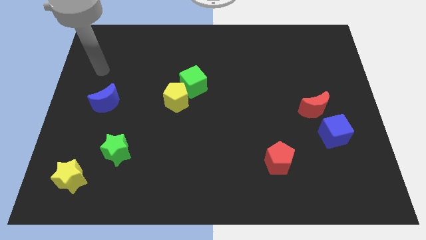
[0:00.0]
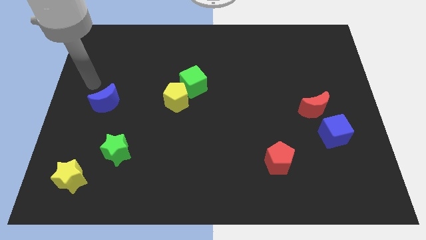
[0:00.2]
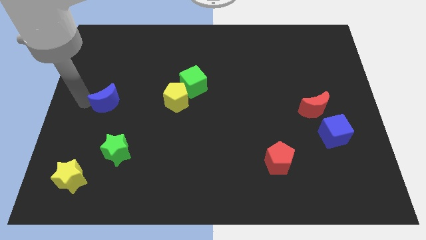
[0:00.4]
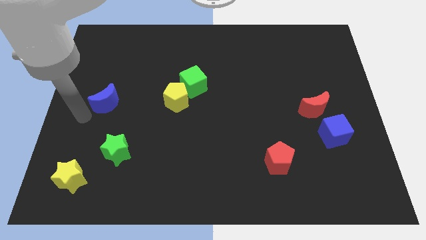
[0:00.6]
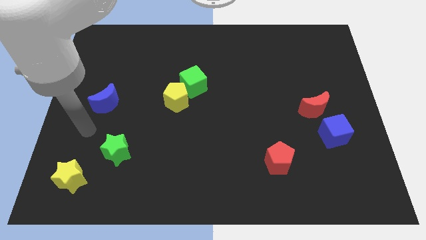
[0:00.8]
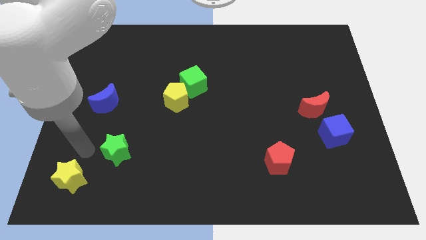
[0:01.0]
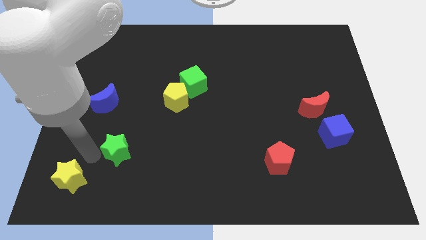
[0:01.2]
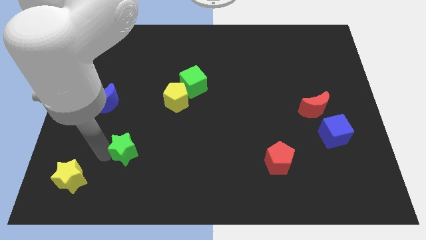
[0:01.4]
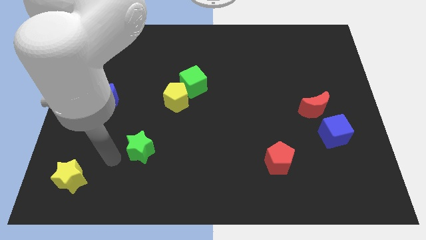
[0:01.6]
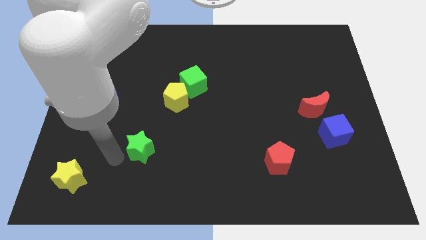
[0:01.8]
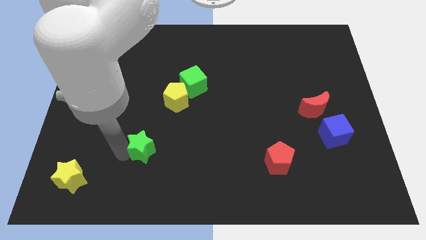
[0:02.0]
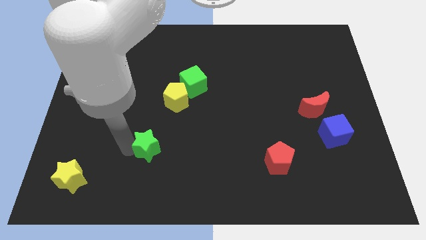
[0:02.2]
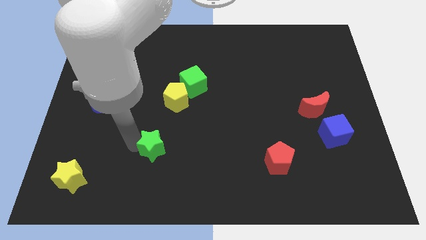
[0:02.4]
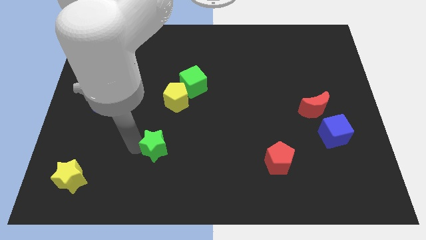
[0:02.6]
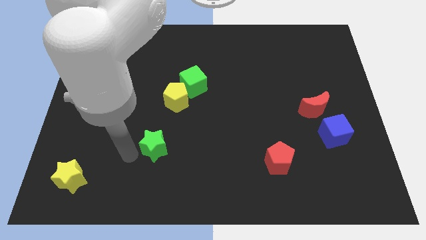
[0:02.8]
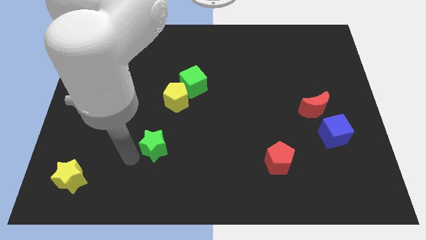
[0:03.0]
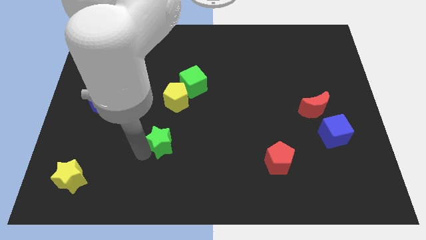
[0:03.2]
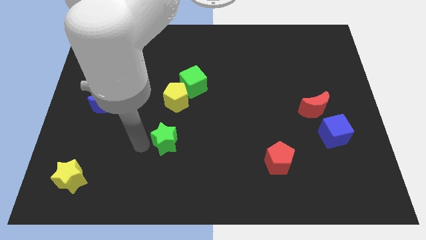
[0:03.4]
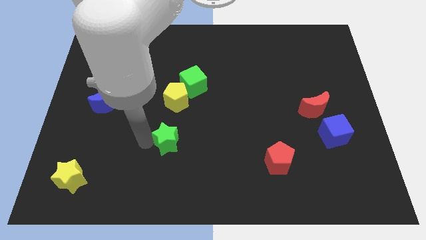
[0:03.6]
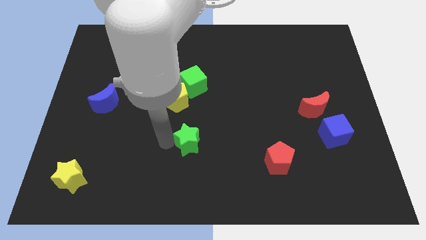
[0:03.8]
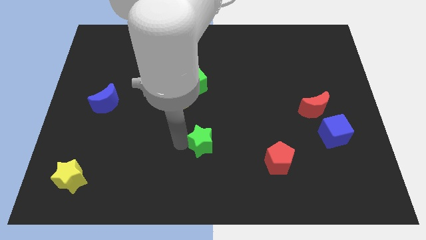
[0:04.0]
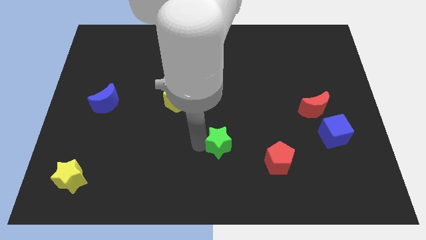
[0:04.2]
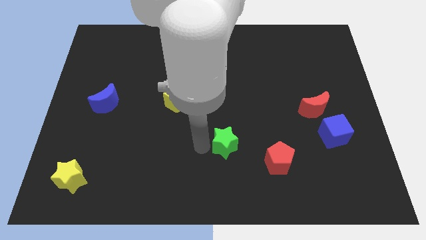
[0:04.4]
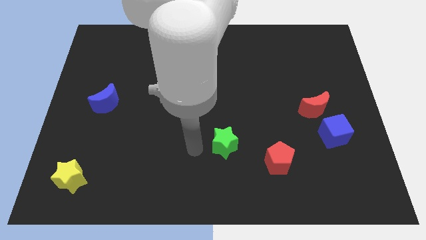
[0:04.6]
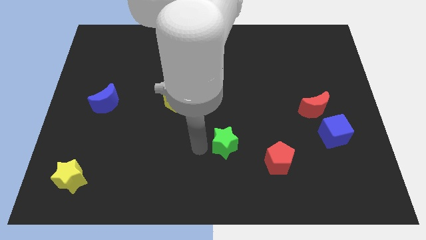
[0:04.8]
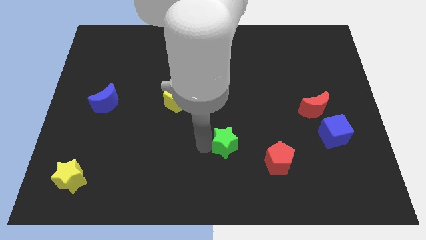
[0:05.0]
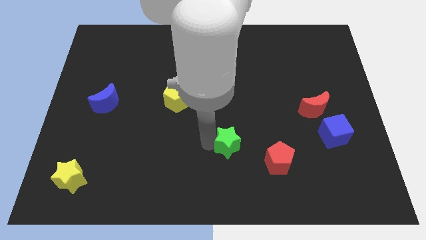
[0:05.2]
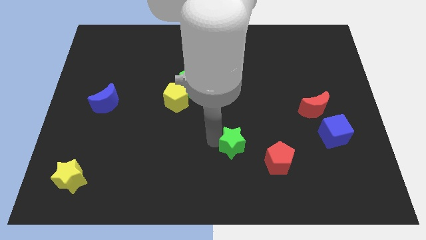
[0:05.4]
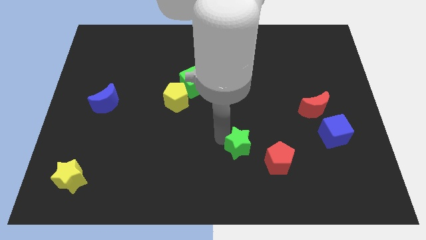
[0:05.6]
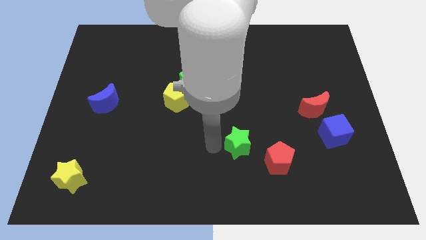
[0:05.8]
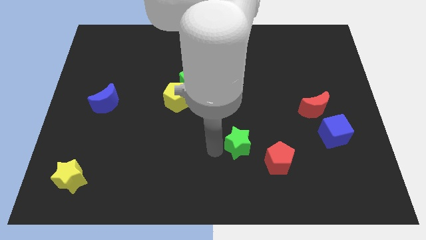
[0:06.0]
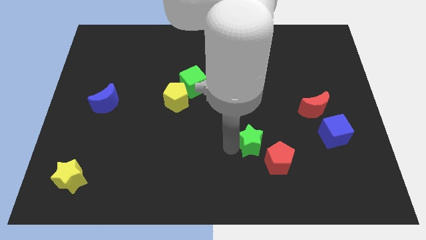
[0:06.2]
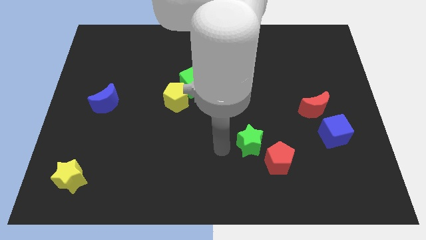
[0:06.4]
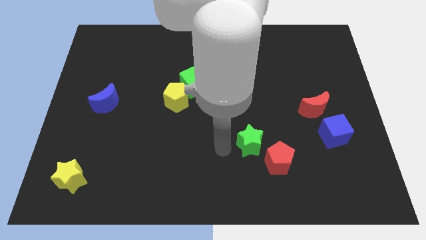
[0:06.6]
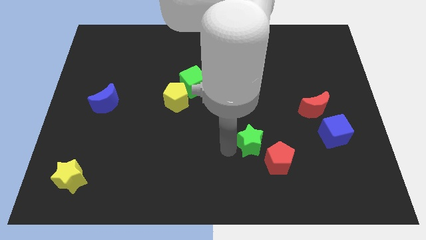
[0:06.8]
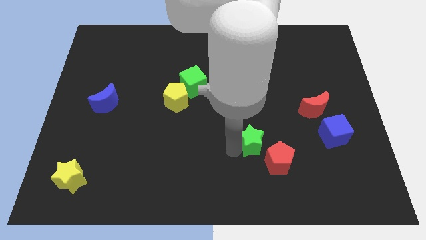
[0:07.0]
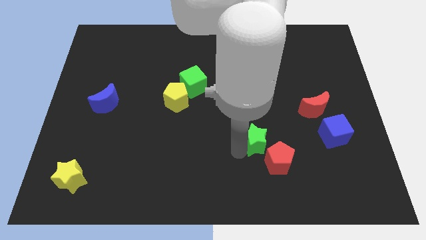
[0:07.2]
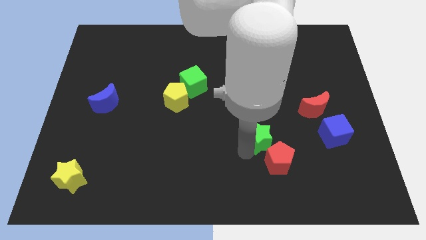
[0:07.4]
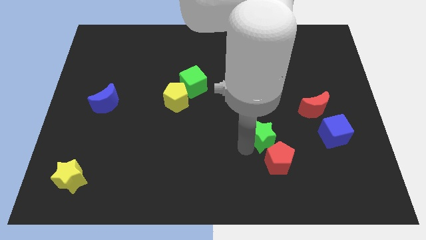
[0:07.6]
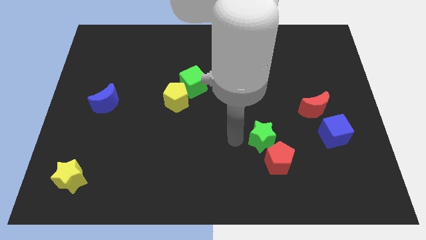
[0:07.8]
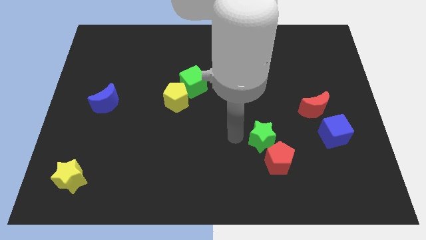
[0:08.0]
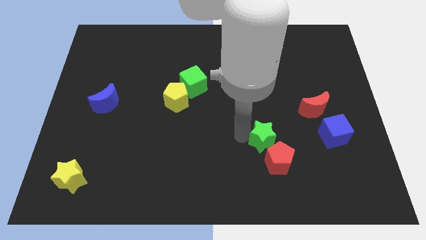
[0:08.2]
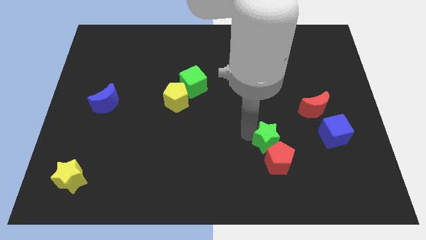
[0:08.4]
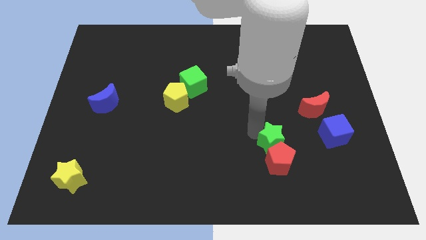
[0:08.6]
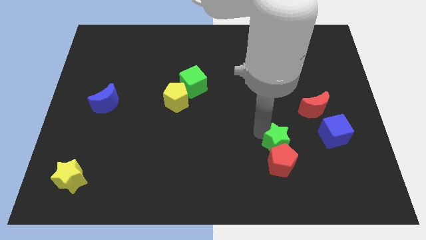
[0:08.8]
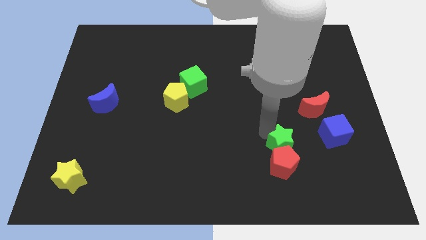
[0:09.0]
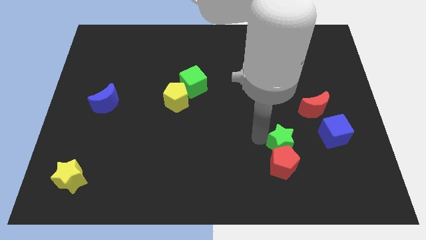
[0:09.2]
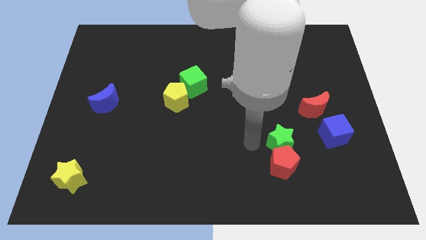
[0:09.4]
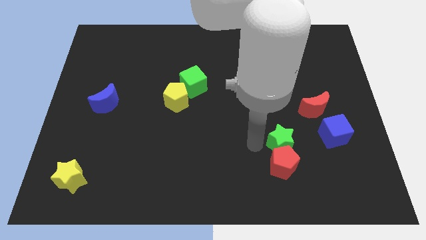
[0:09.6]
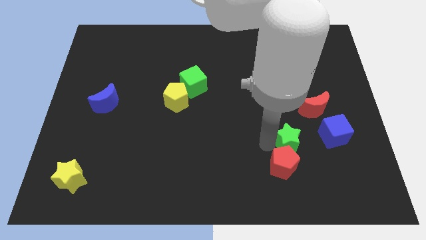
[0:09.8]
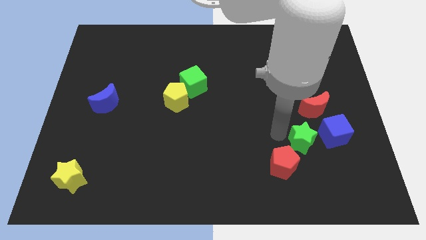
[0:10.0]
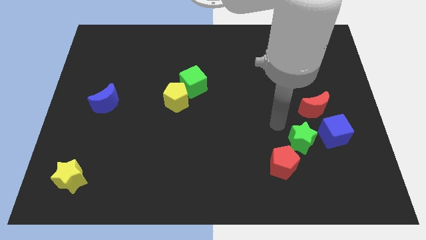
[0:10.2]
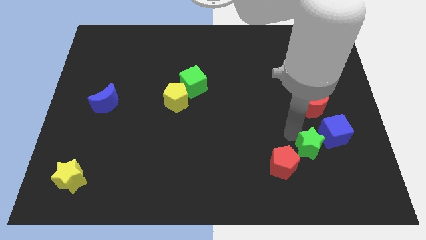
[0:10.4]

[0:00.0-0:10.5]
move the green star to the right side of the red pentagon

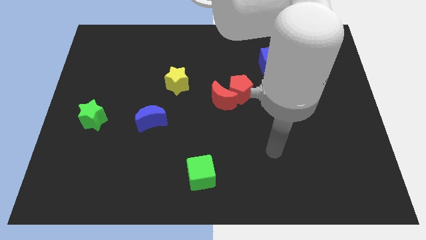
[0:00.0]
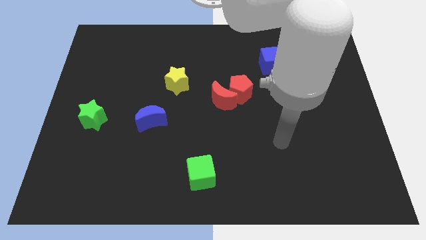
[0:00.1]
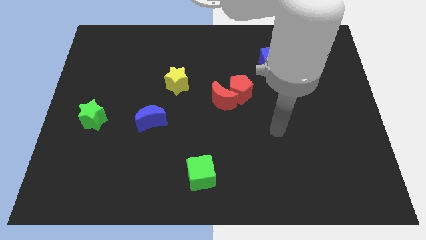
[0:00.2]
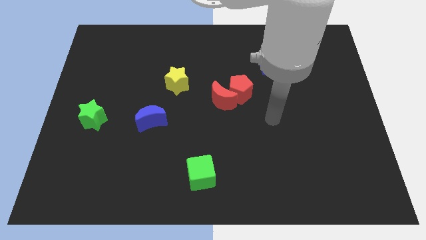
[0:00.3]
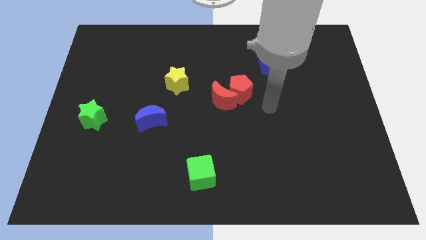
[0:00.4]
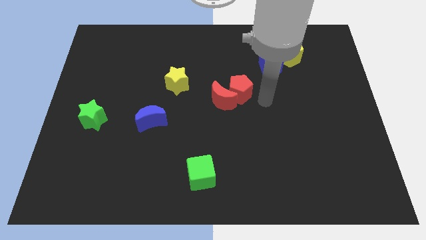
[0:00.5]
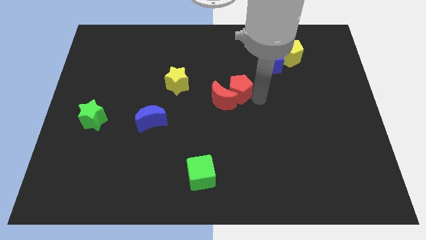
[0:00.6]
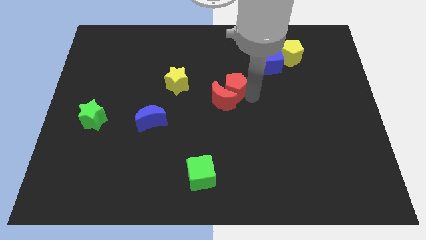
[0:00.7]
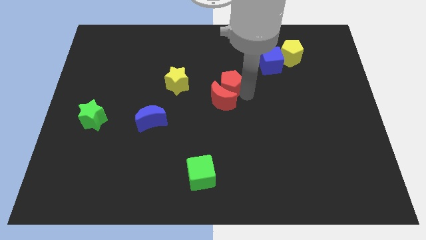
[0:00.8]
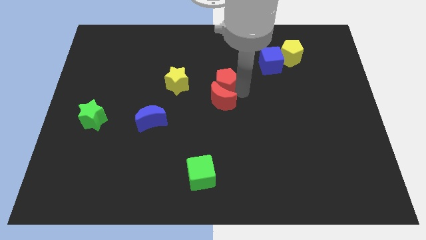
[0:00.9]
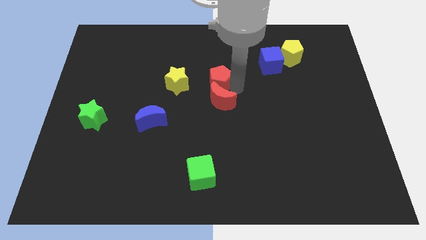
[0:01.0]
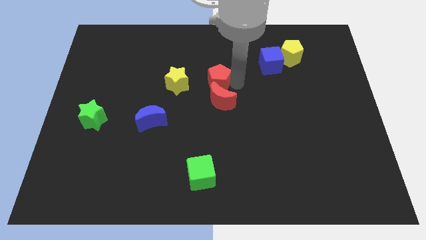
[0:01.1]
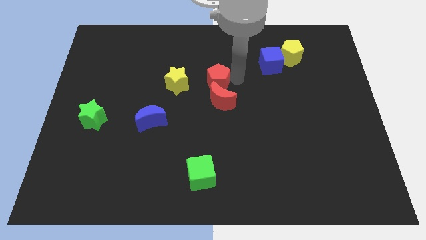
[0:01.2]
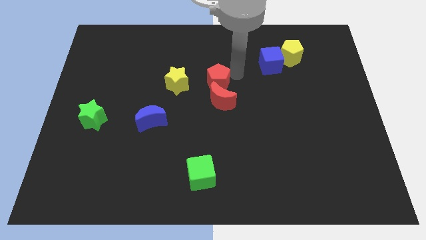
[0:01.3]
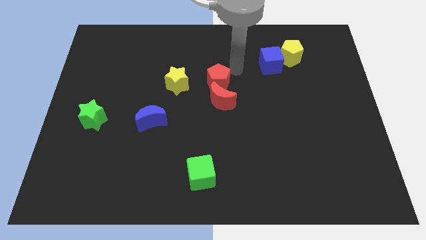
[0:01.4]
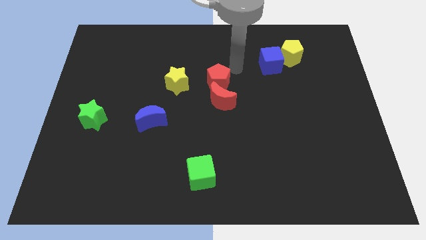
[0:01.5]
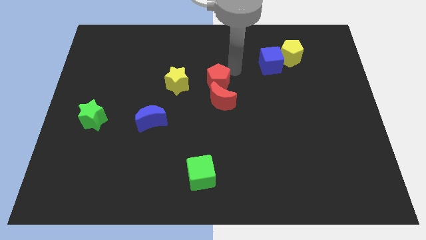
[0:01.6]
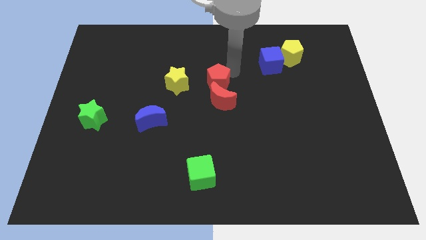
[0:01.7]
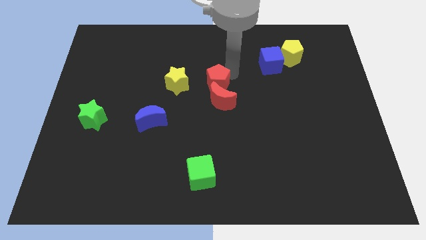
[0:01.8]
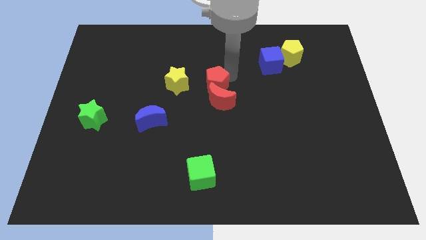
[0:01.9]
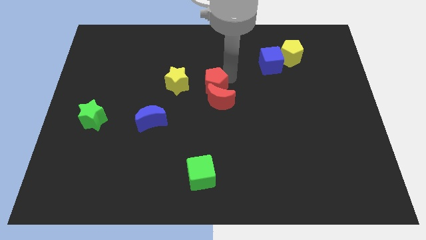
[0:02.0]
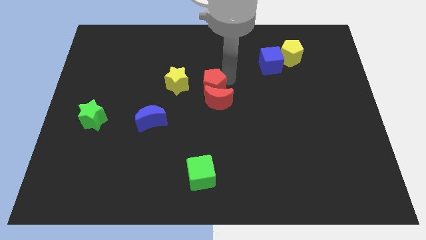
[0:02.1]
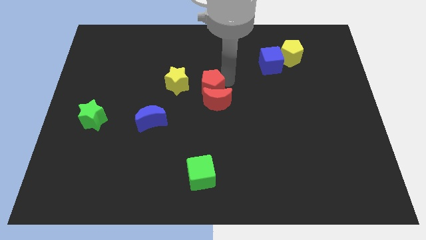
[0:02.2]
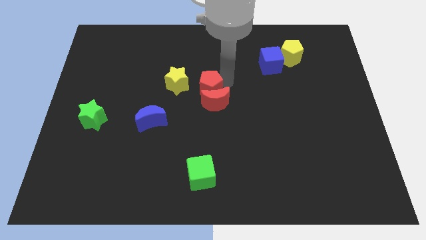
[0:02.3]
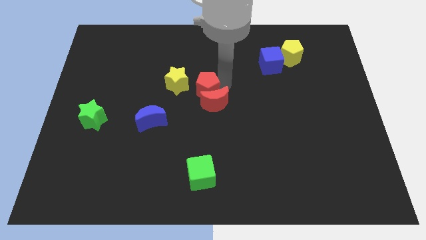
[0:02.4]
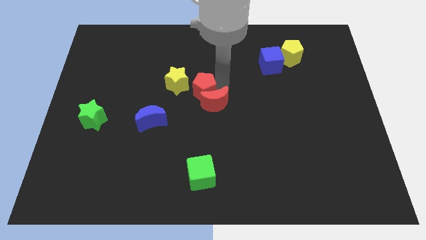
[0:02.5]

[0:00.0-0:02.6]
move the red pentagon just left of the red moon
